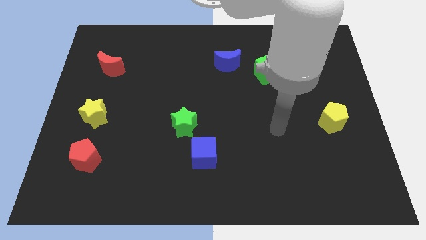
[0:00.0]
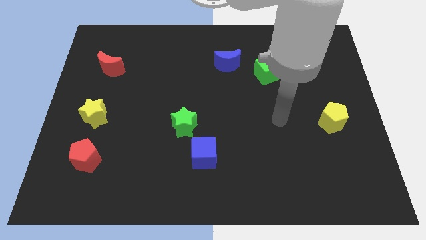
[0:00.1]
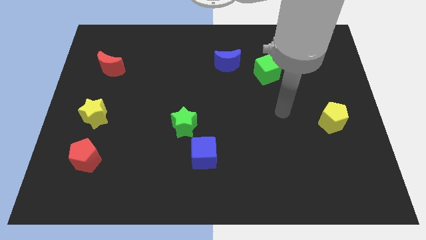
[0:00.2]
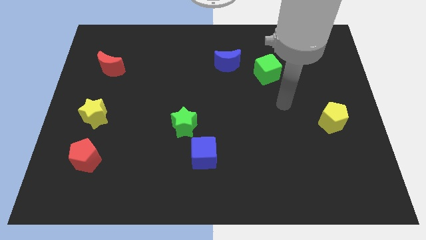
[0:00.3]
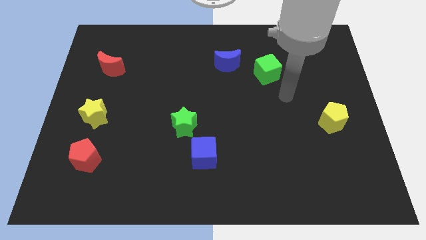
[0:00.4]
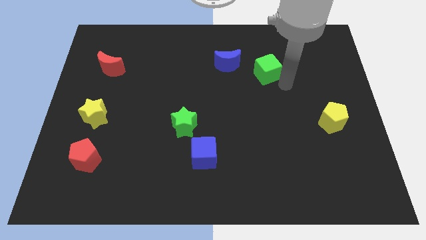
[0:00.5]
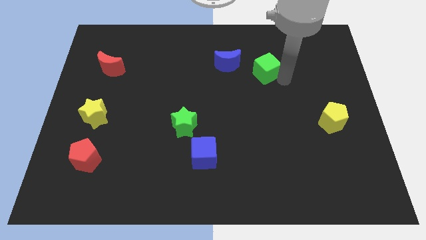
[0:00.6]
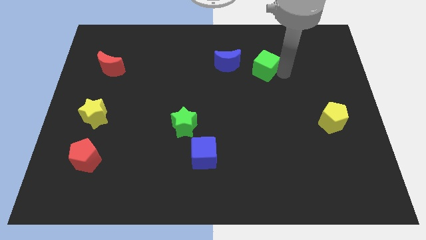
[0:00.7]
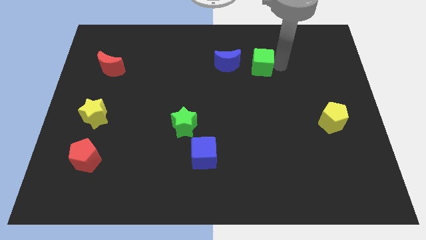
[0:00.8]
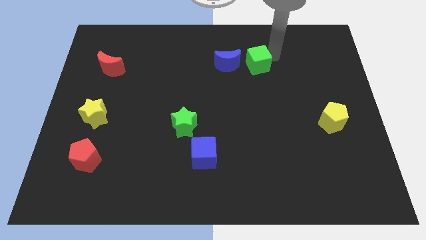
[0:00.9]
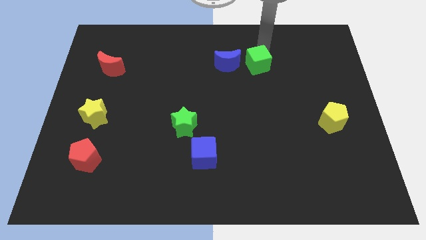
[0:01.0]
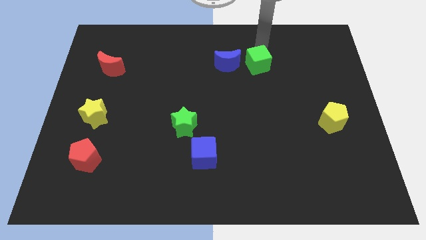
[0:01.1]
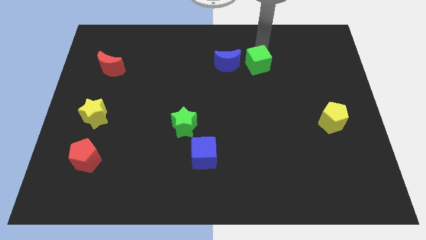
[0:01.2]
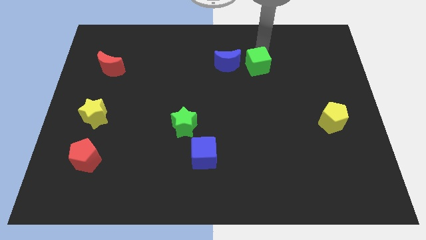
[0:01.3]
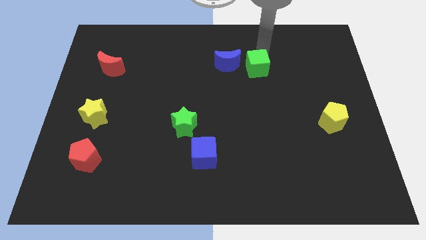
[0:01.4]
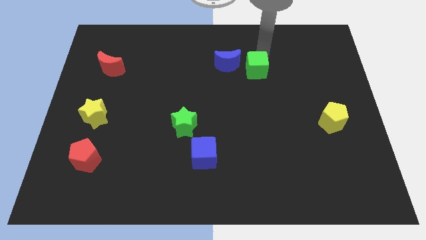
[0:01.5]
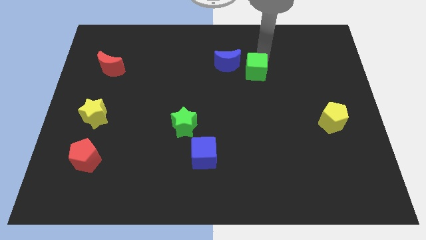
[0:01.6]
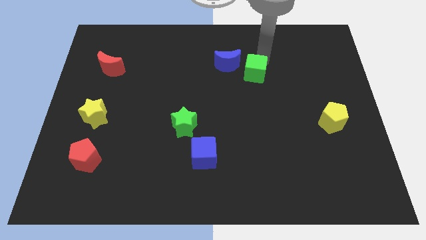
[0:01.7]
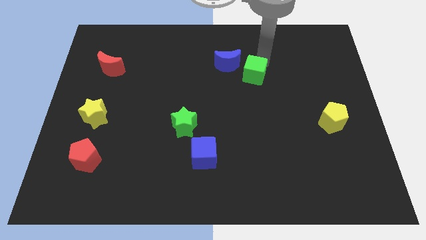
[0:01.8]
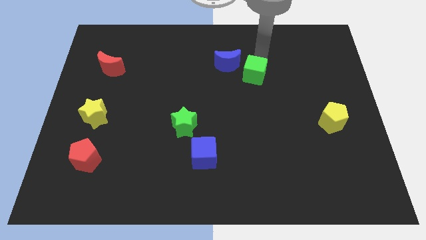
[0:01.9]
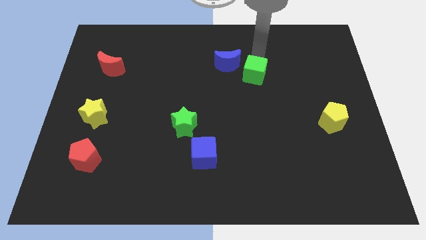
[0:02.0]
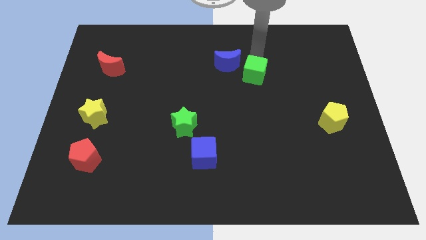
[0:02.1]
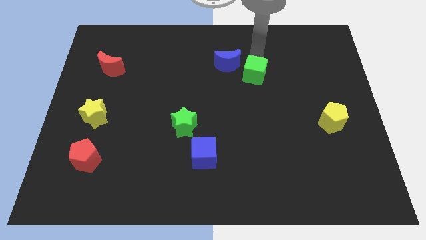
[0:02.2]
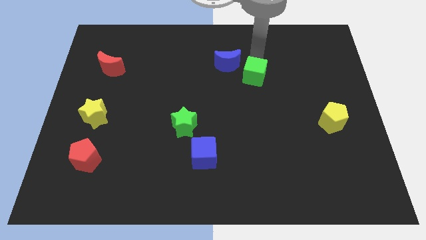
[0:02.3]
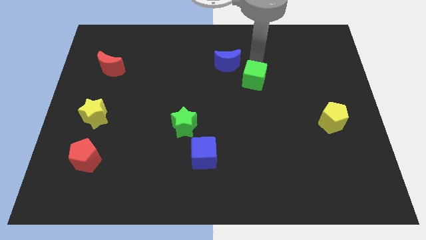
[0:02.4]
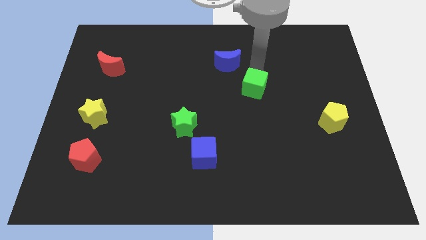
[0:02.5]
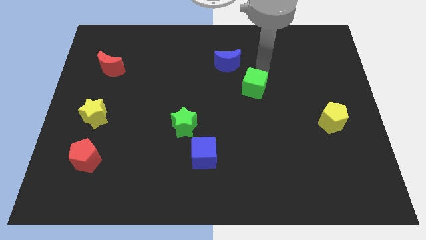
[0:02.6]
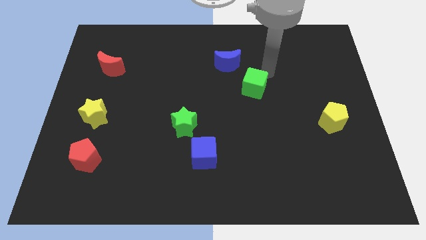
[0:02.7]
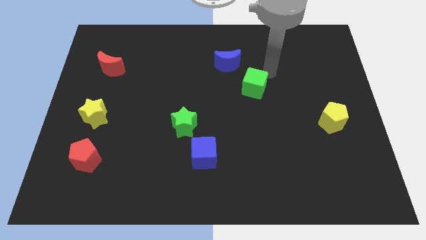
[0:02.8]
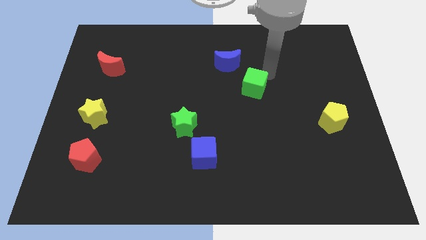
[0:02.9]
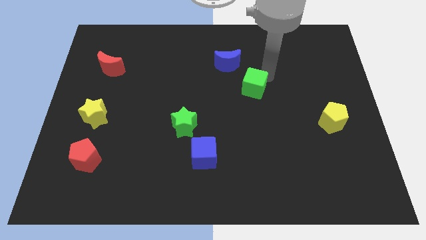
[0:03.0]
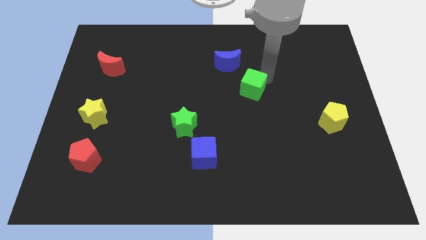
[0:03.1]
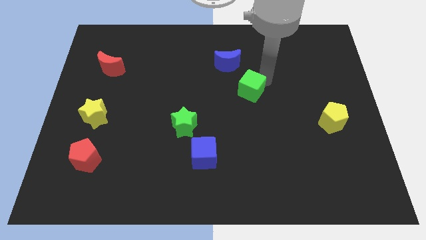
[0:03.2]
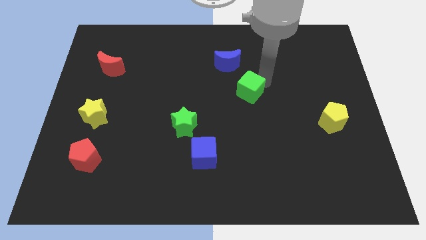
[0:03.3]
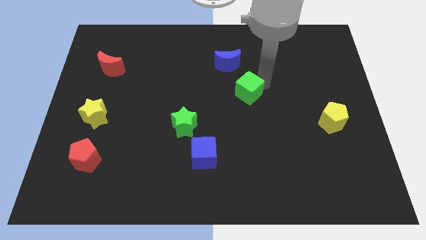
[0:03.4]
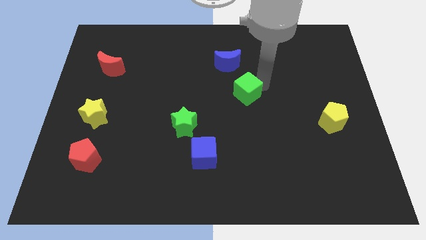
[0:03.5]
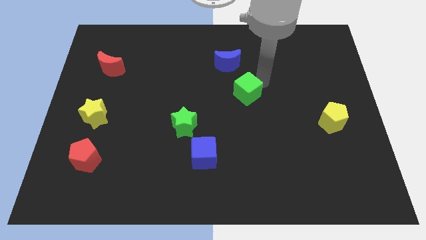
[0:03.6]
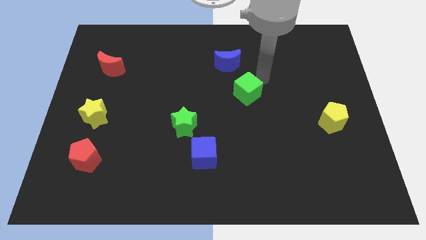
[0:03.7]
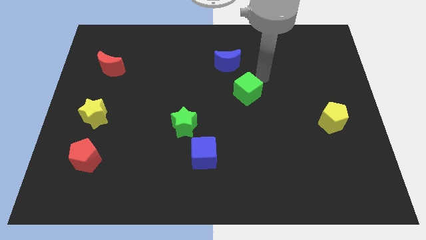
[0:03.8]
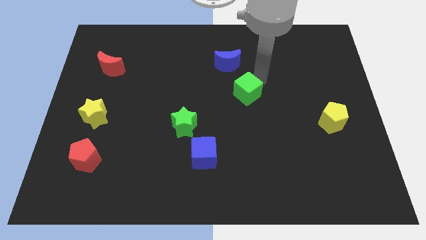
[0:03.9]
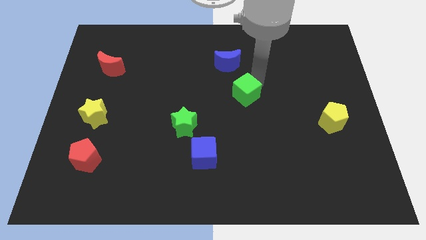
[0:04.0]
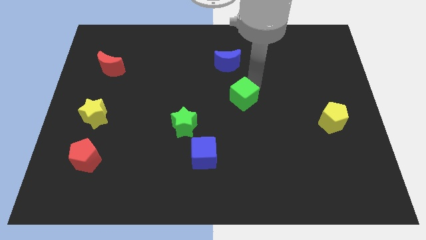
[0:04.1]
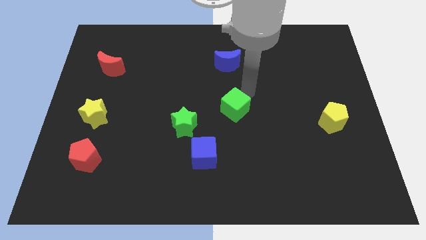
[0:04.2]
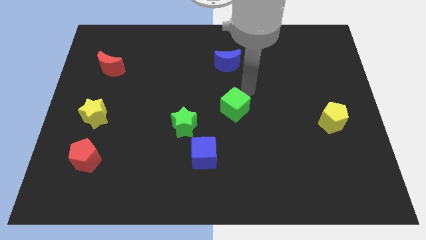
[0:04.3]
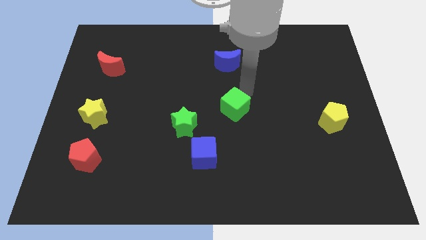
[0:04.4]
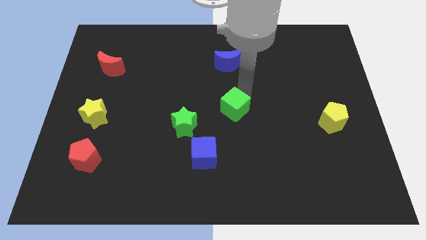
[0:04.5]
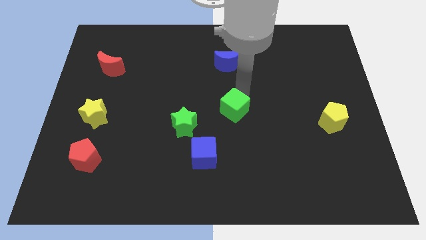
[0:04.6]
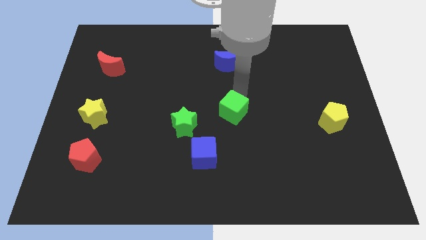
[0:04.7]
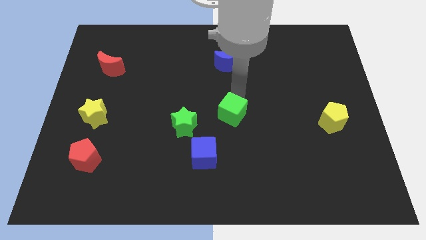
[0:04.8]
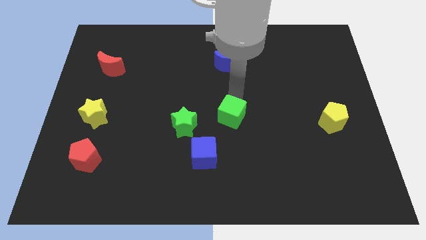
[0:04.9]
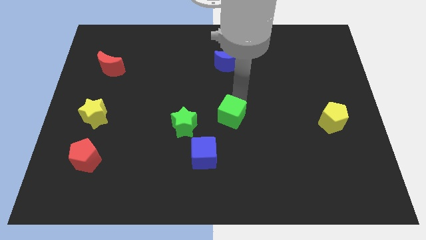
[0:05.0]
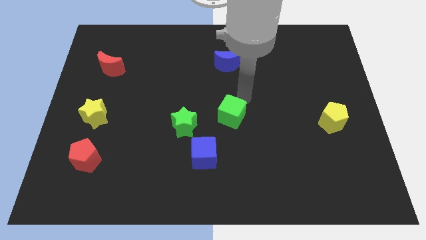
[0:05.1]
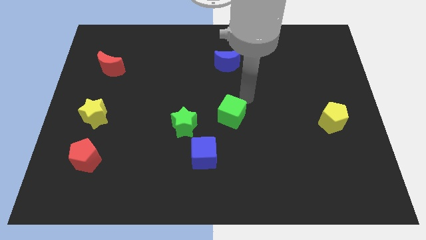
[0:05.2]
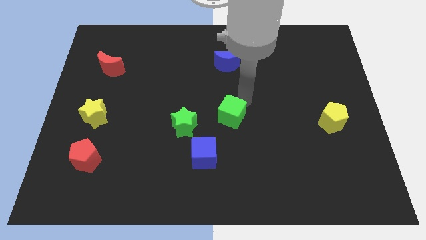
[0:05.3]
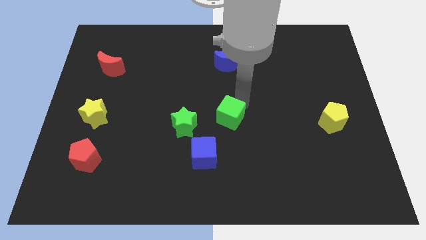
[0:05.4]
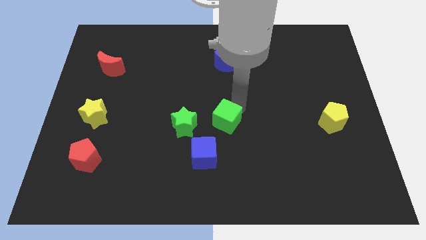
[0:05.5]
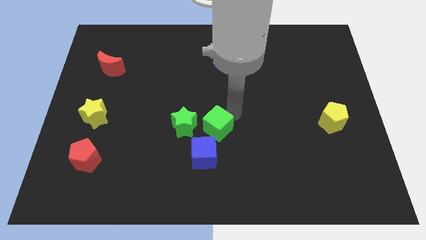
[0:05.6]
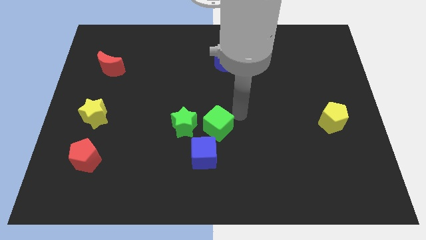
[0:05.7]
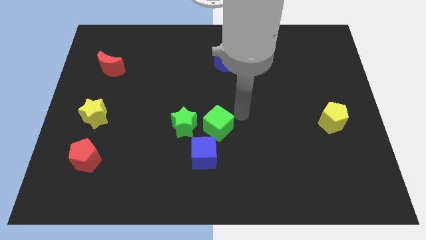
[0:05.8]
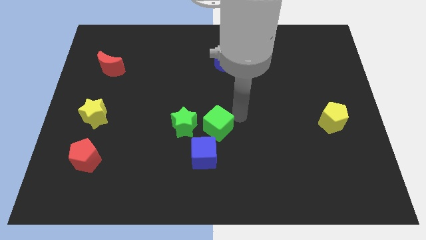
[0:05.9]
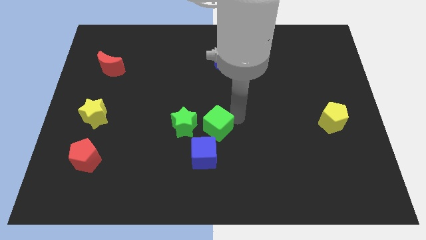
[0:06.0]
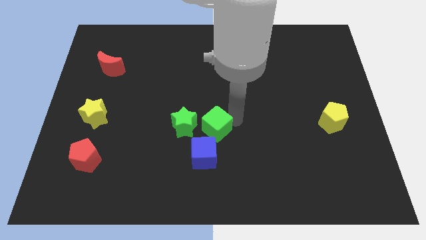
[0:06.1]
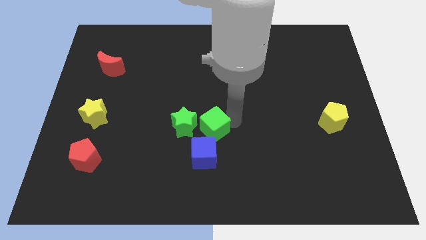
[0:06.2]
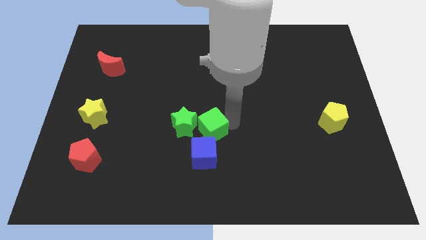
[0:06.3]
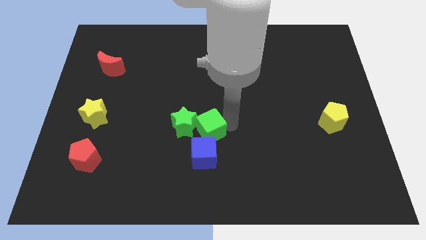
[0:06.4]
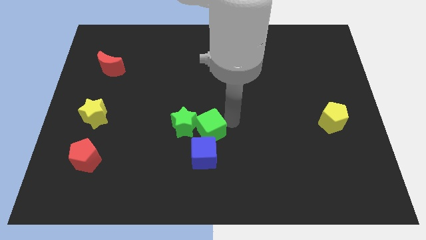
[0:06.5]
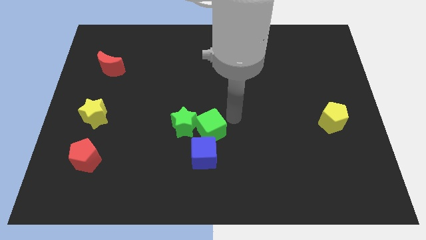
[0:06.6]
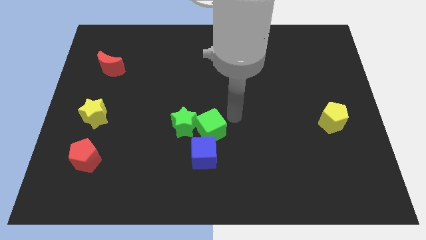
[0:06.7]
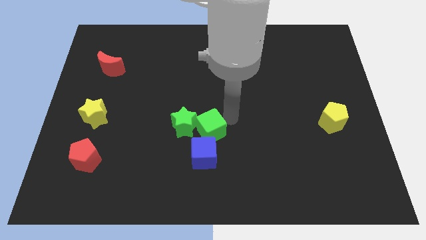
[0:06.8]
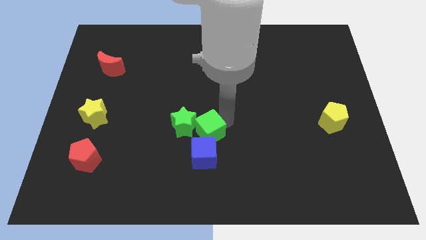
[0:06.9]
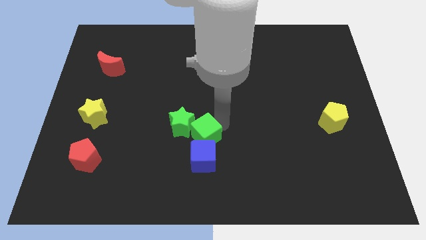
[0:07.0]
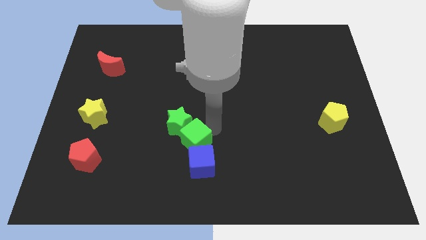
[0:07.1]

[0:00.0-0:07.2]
slide the green cube below the green star

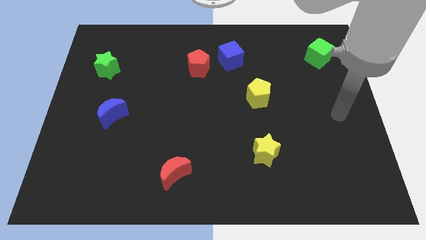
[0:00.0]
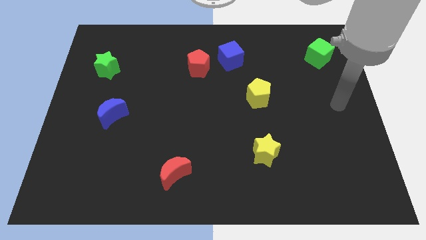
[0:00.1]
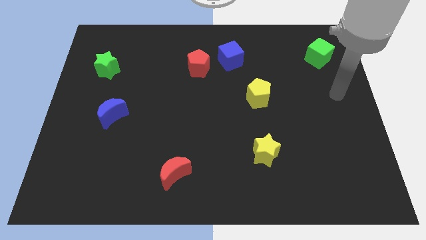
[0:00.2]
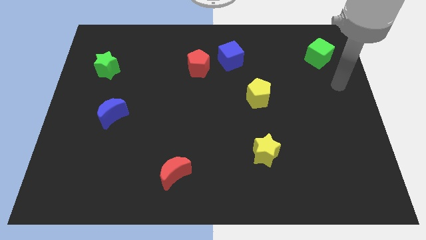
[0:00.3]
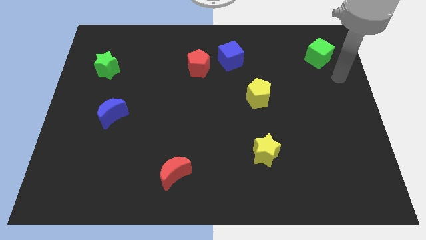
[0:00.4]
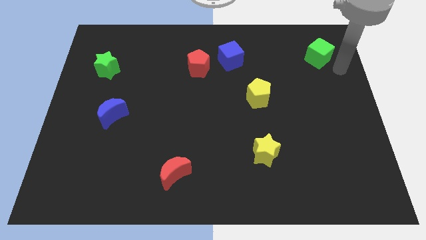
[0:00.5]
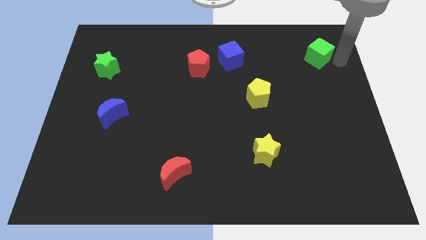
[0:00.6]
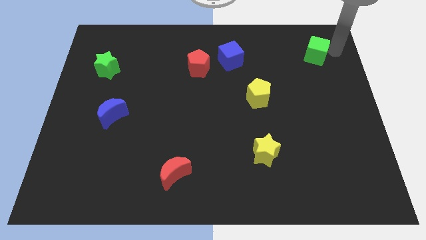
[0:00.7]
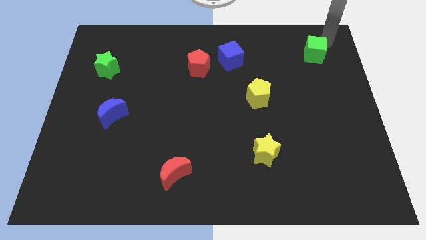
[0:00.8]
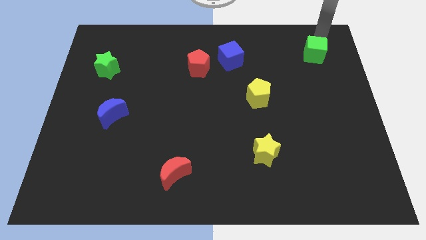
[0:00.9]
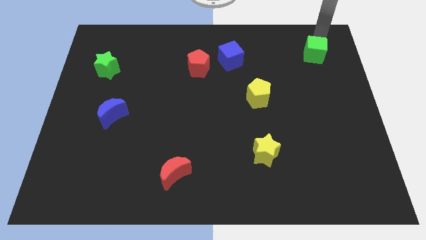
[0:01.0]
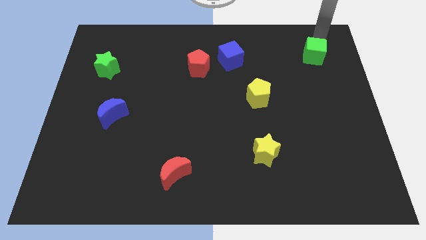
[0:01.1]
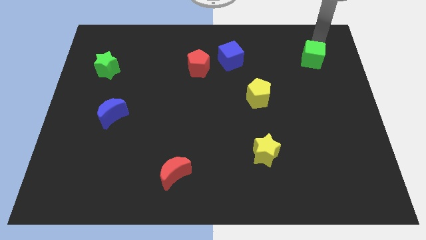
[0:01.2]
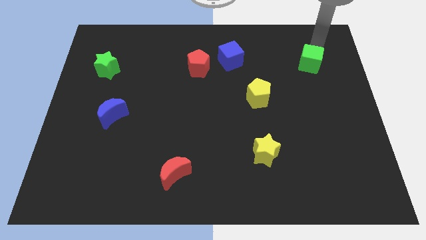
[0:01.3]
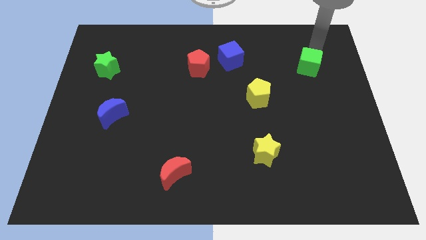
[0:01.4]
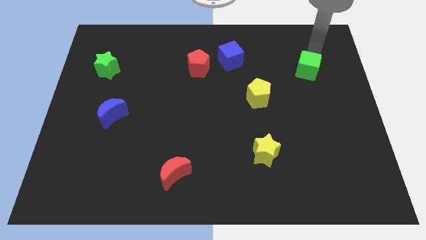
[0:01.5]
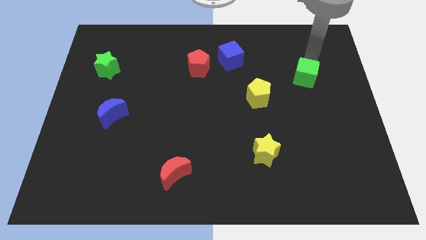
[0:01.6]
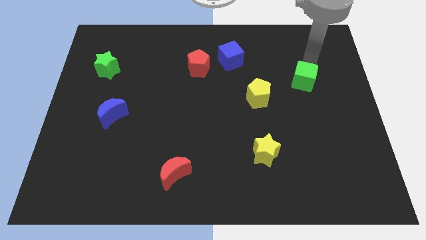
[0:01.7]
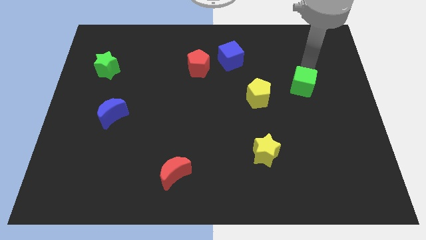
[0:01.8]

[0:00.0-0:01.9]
put the green cube to the right side of the yellow pentagon
